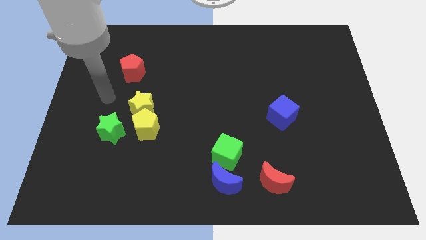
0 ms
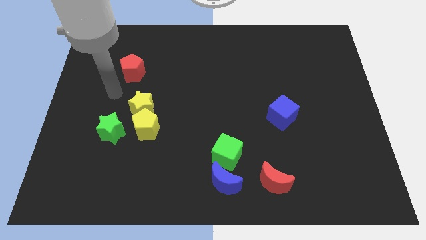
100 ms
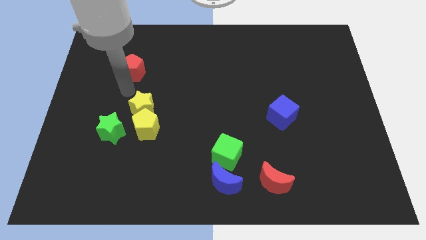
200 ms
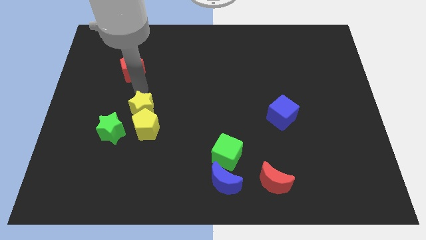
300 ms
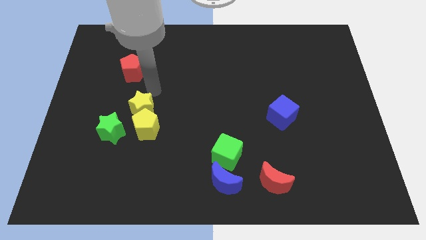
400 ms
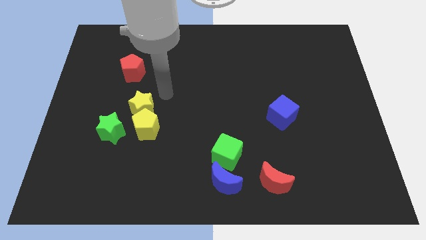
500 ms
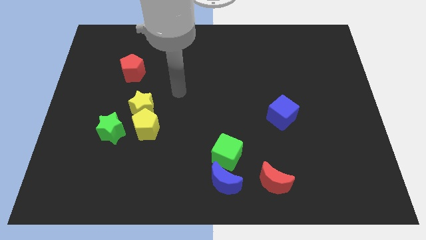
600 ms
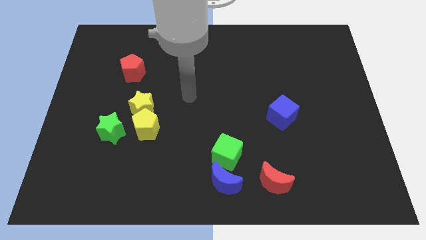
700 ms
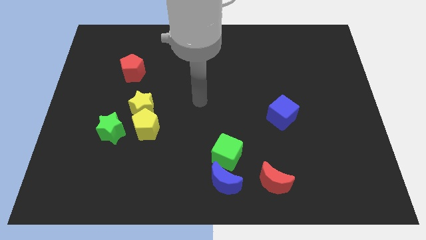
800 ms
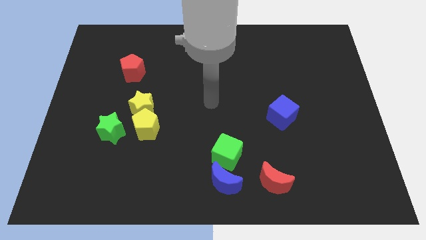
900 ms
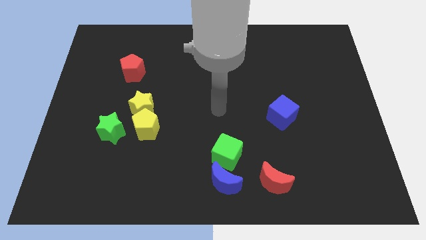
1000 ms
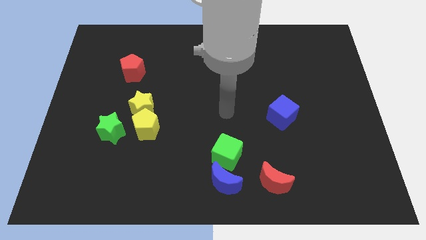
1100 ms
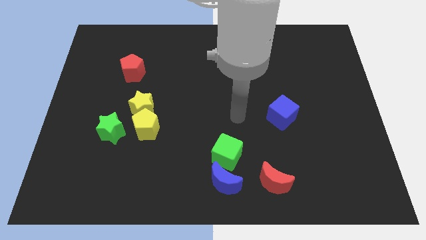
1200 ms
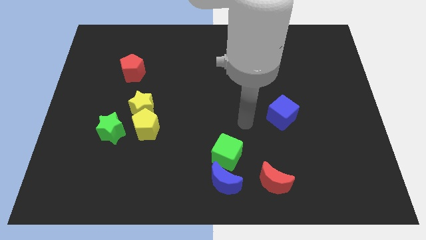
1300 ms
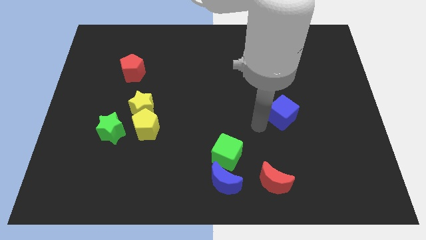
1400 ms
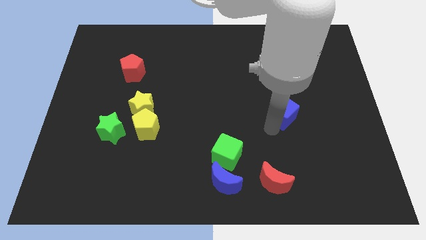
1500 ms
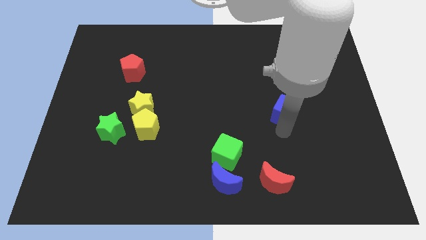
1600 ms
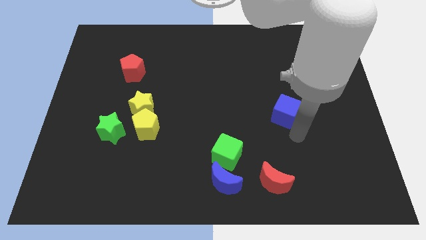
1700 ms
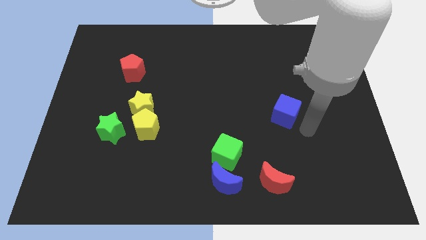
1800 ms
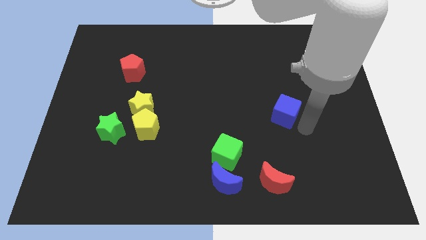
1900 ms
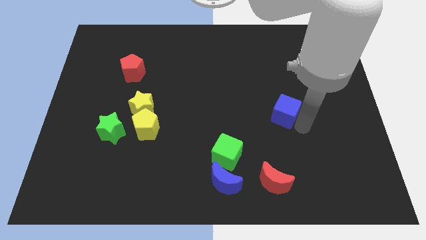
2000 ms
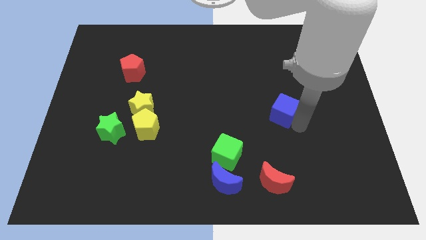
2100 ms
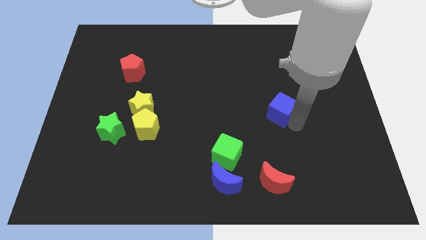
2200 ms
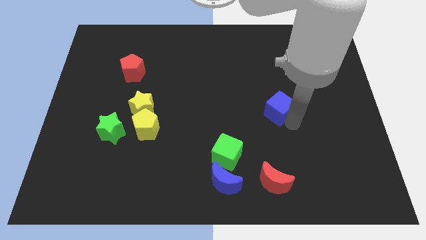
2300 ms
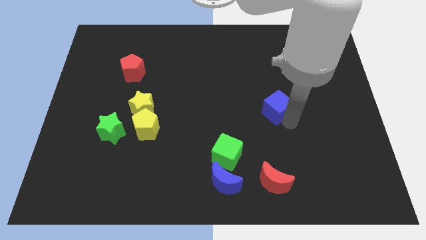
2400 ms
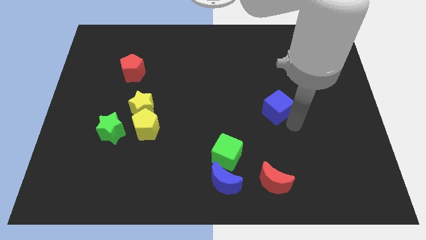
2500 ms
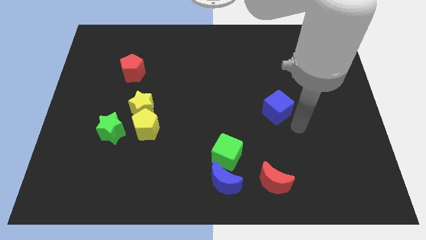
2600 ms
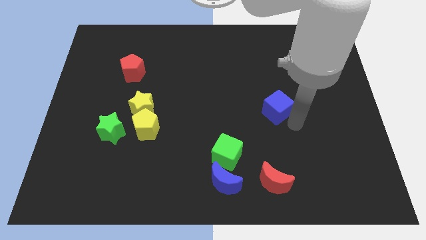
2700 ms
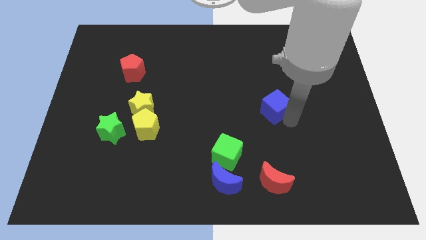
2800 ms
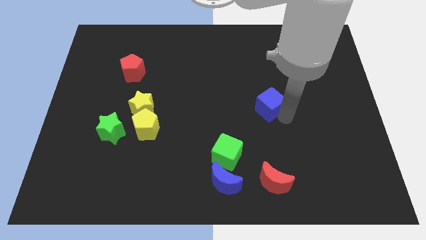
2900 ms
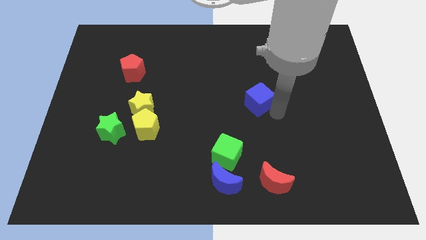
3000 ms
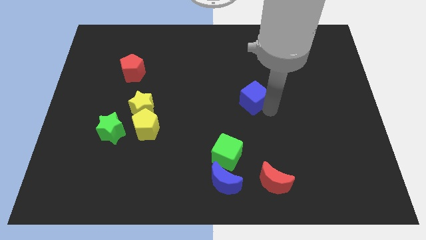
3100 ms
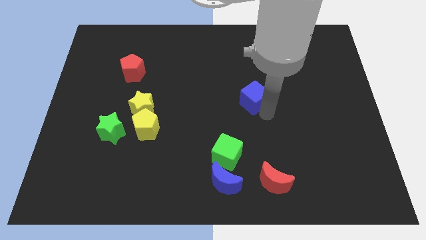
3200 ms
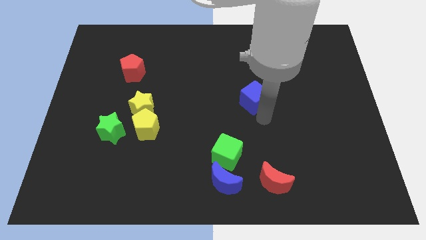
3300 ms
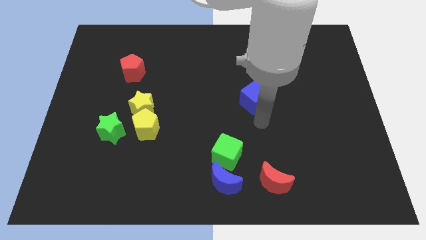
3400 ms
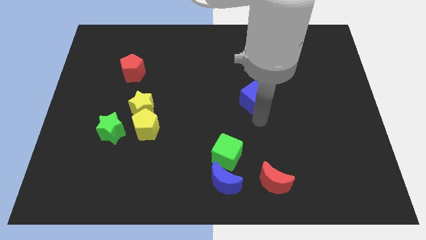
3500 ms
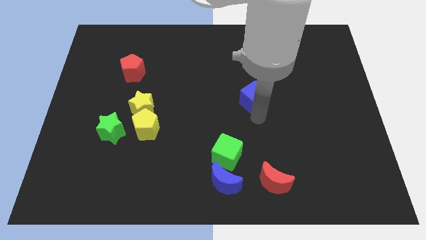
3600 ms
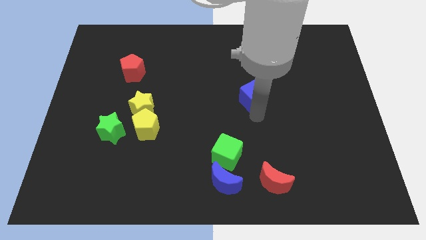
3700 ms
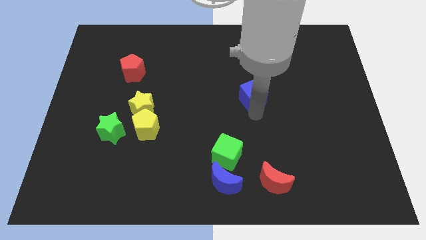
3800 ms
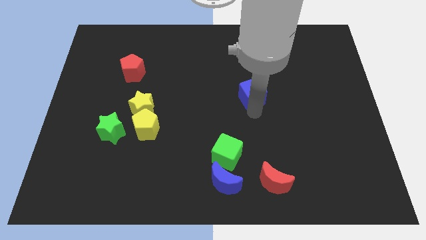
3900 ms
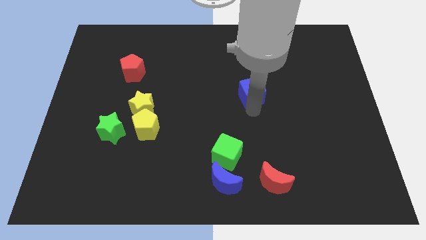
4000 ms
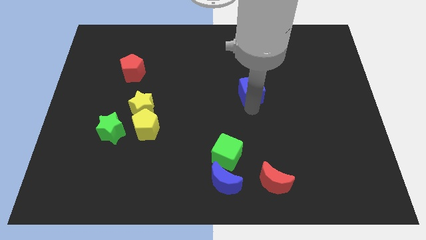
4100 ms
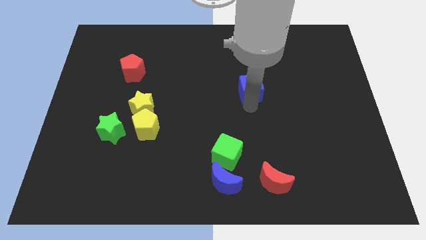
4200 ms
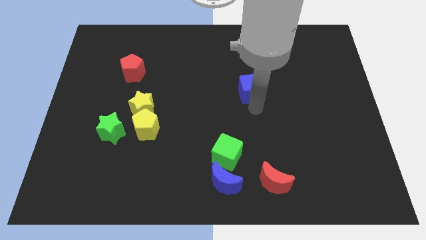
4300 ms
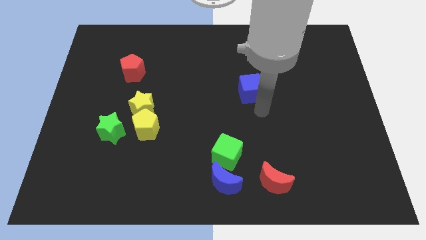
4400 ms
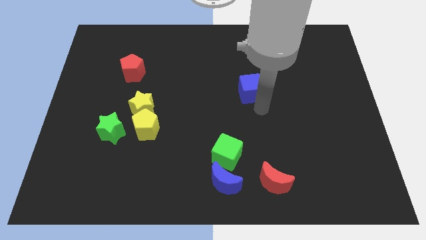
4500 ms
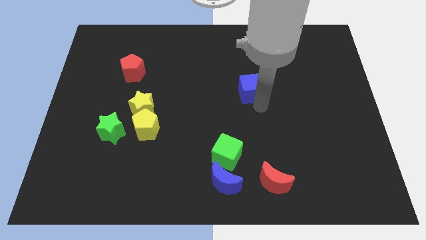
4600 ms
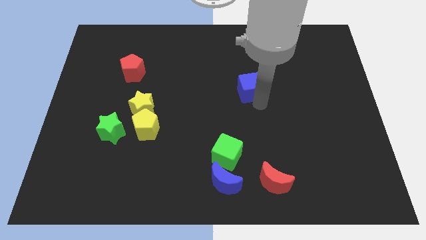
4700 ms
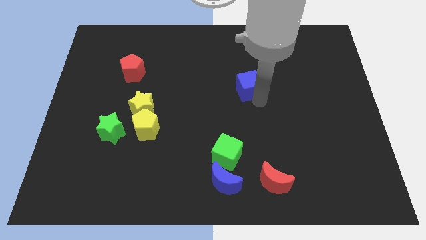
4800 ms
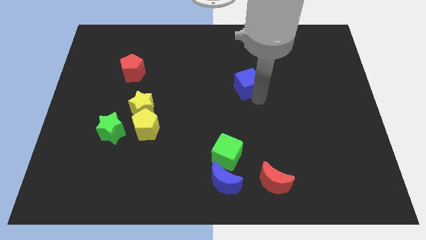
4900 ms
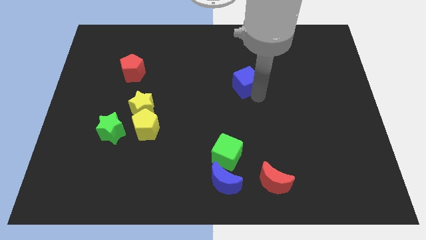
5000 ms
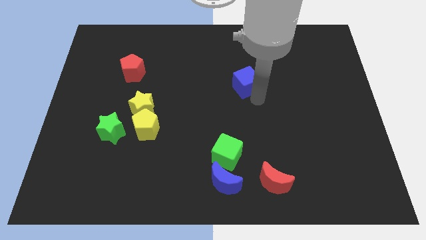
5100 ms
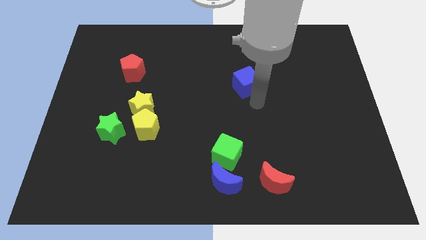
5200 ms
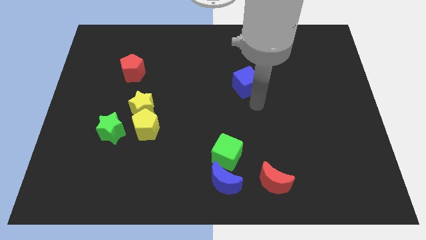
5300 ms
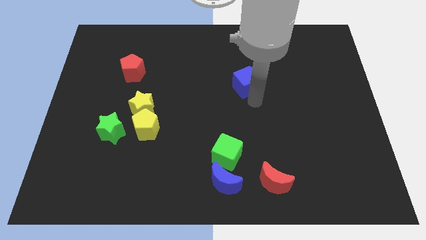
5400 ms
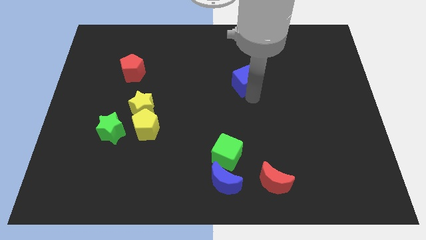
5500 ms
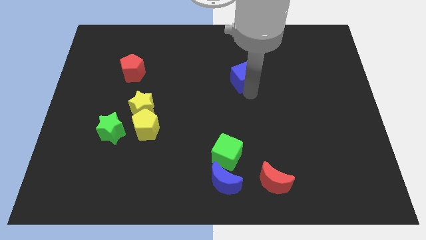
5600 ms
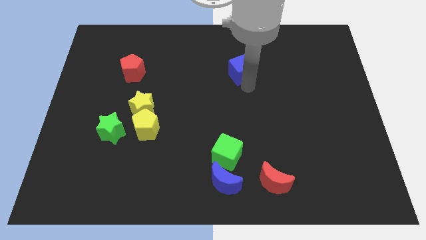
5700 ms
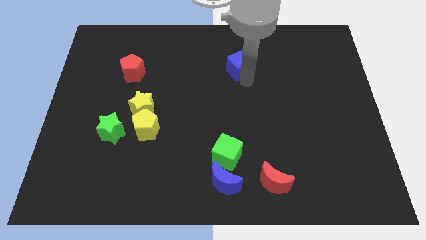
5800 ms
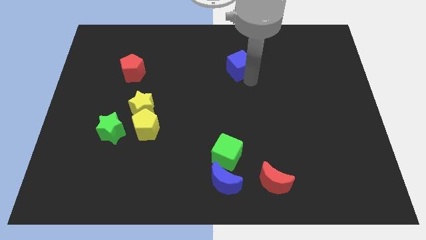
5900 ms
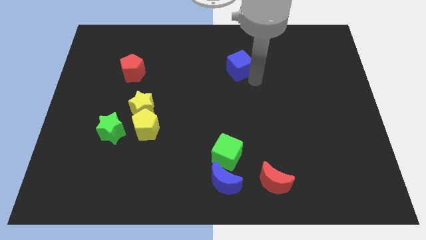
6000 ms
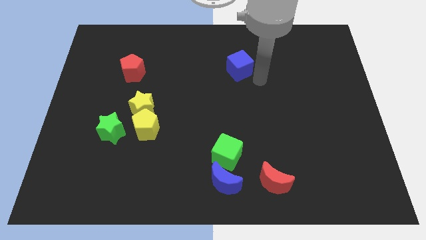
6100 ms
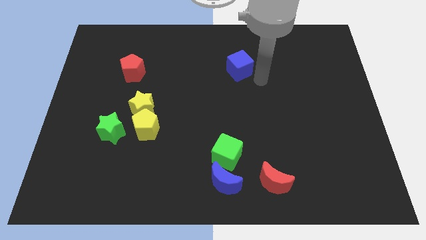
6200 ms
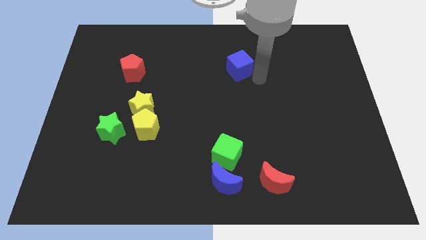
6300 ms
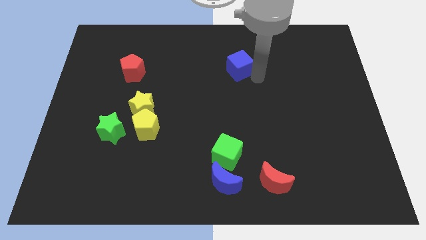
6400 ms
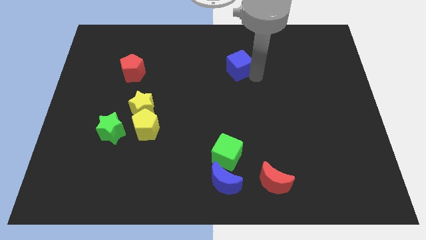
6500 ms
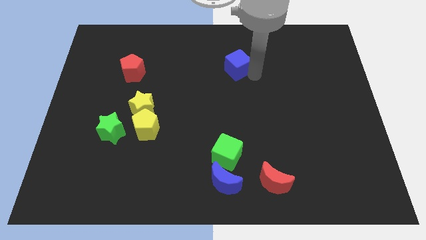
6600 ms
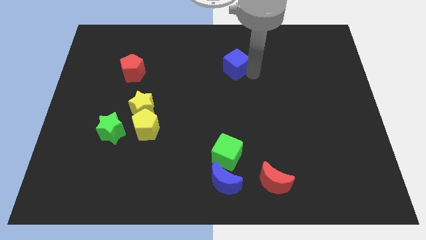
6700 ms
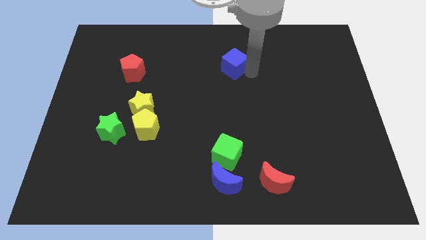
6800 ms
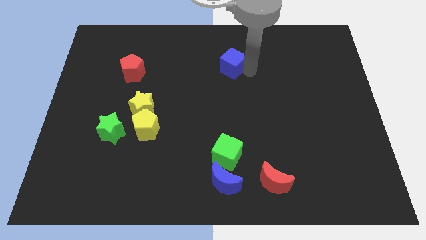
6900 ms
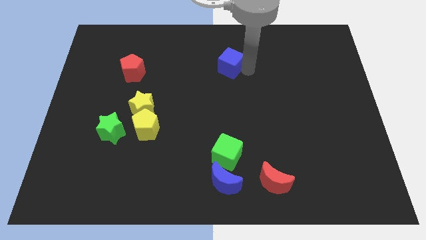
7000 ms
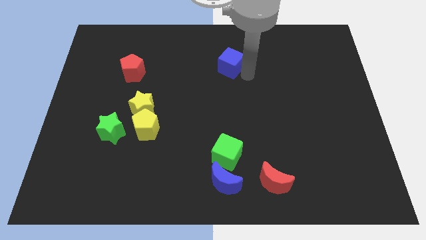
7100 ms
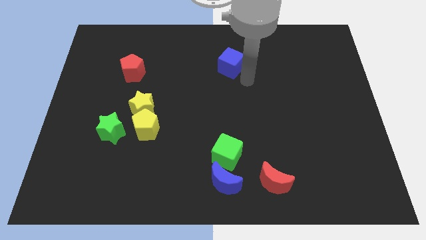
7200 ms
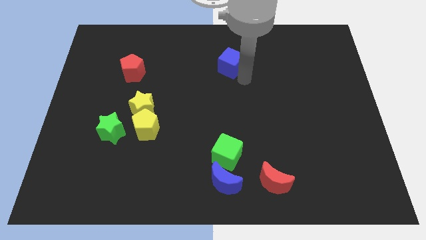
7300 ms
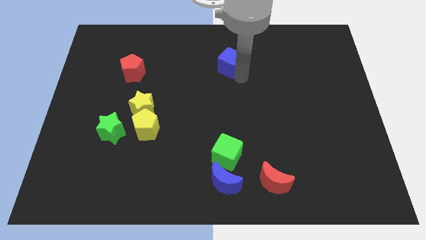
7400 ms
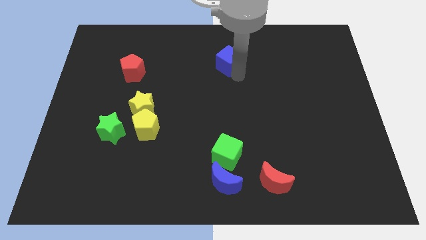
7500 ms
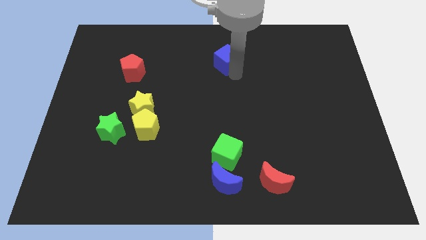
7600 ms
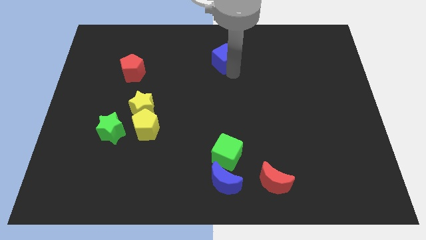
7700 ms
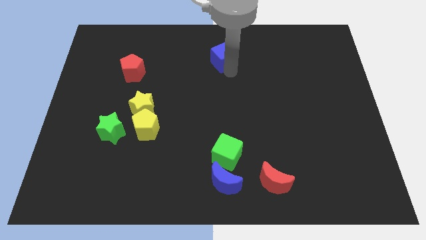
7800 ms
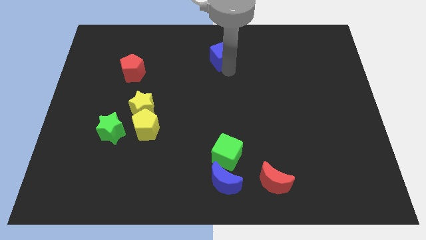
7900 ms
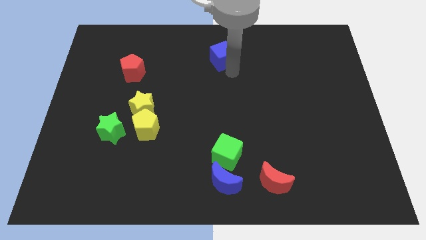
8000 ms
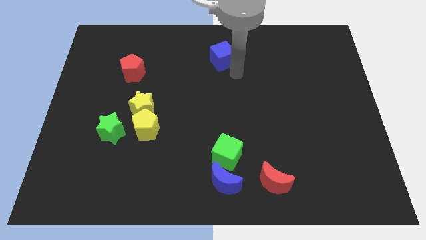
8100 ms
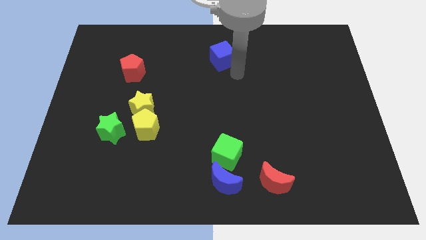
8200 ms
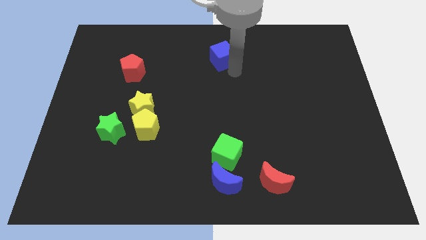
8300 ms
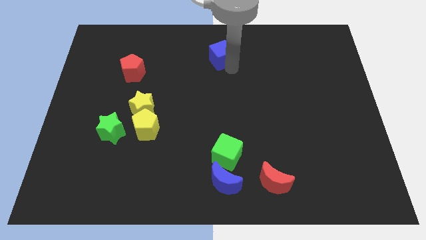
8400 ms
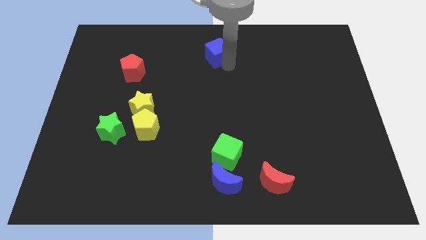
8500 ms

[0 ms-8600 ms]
push the blue cube to the towards your base
